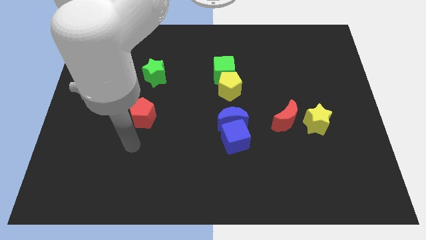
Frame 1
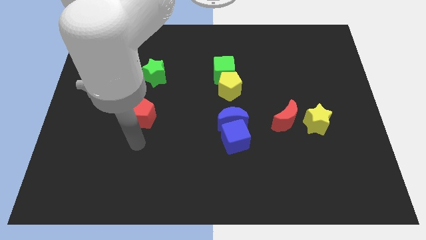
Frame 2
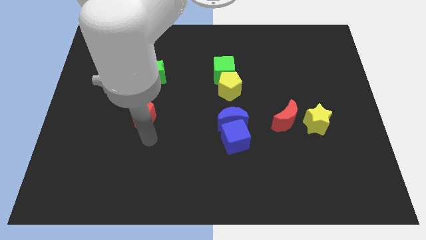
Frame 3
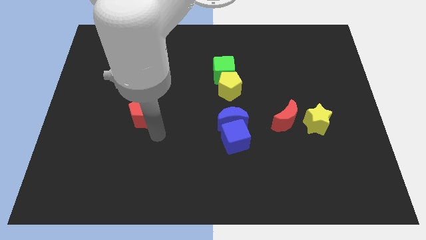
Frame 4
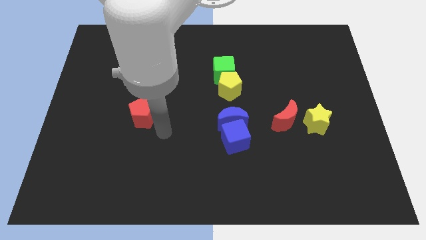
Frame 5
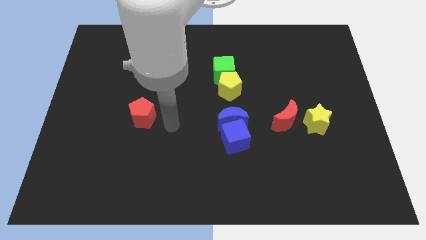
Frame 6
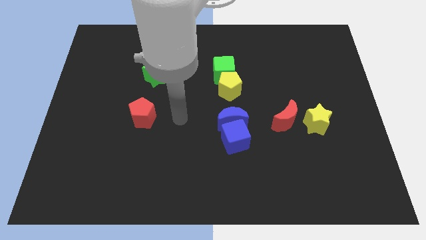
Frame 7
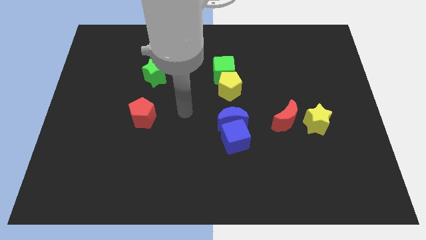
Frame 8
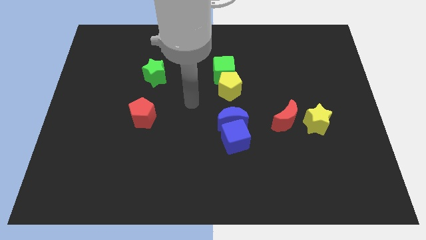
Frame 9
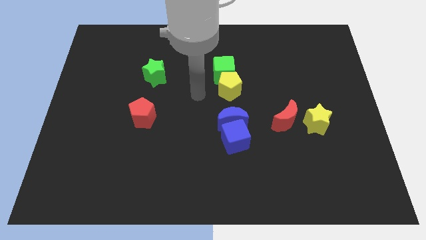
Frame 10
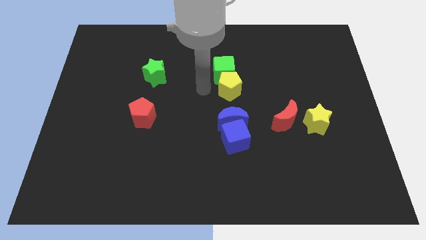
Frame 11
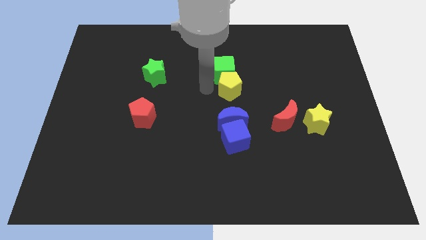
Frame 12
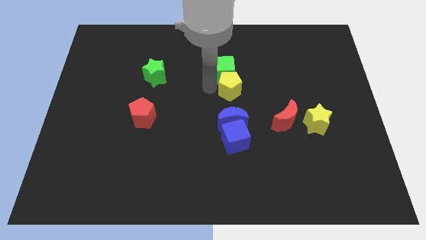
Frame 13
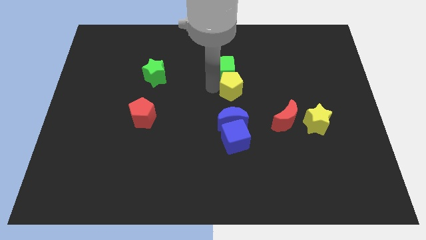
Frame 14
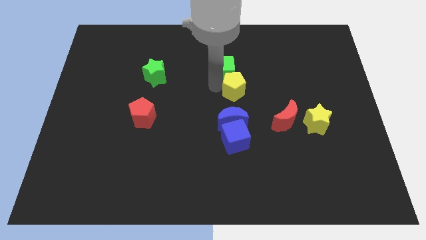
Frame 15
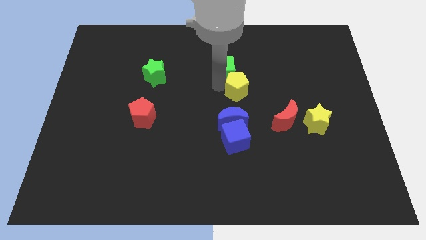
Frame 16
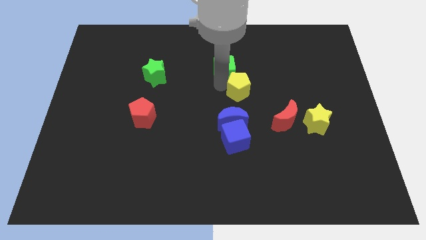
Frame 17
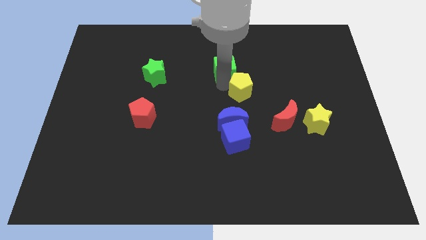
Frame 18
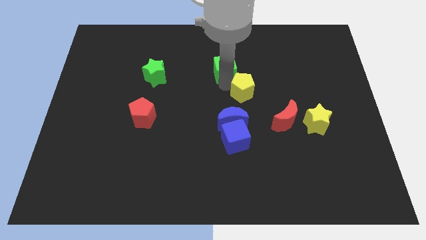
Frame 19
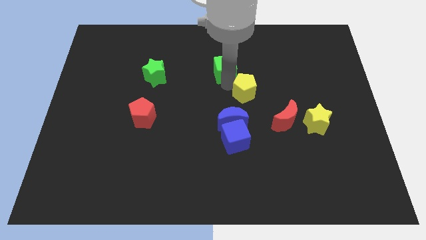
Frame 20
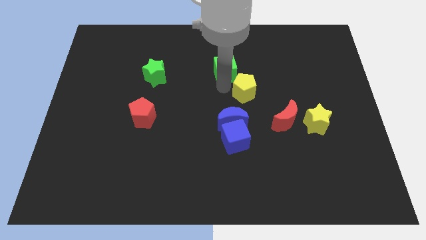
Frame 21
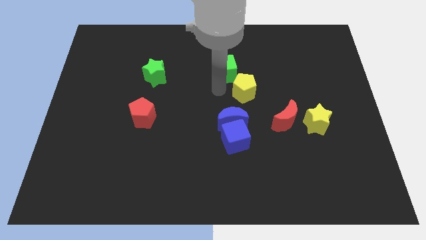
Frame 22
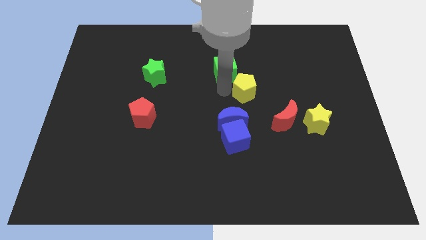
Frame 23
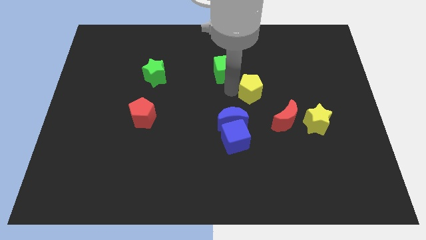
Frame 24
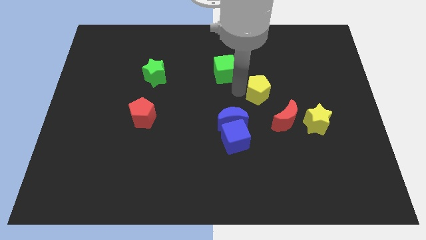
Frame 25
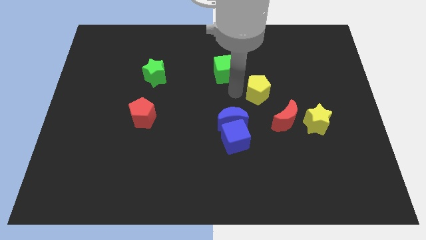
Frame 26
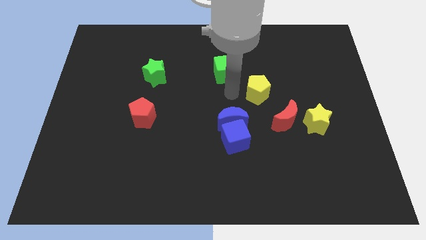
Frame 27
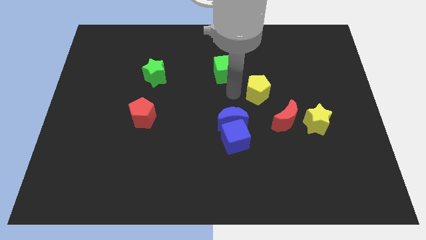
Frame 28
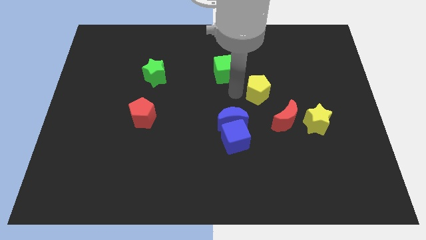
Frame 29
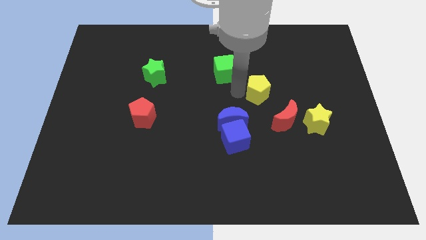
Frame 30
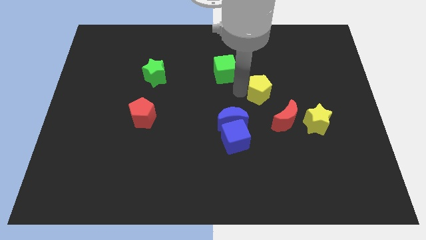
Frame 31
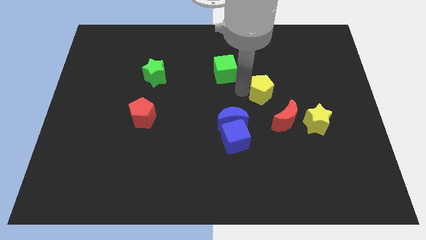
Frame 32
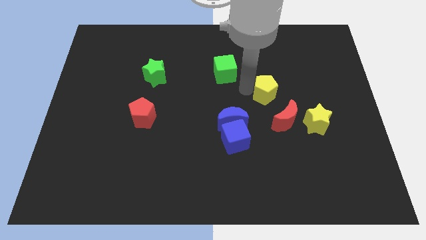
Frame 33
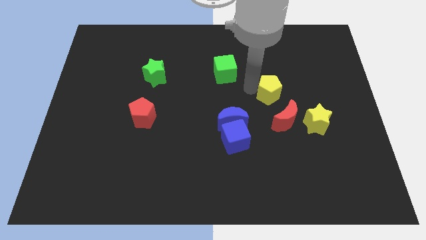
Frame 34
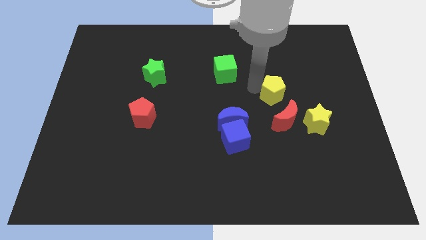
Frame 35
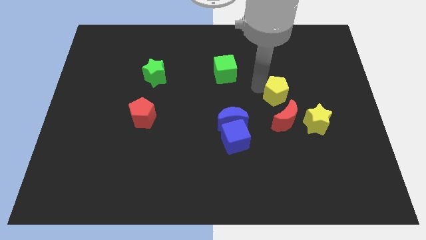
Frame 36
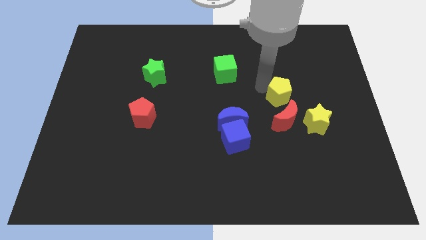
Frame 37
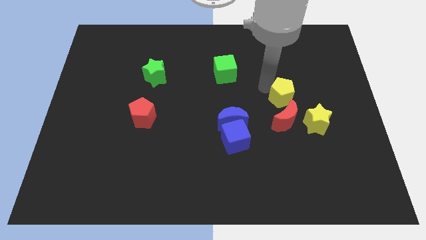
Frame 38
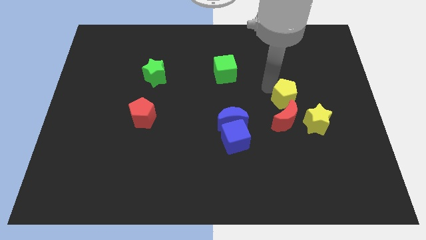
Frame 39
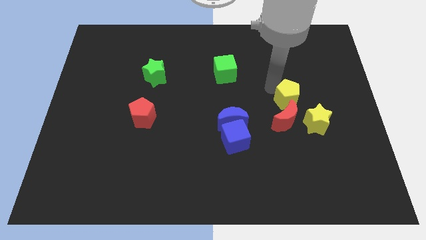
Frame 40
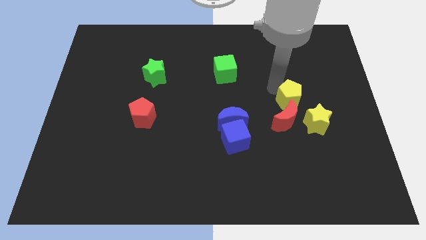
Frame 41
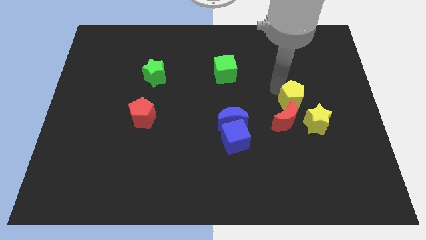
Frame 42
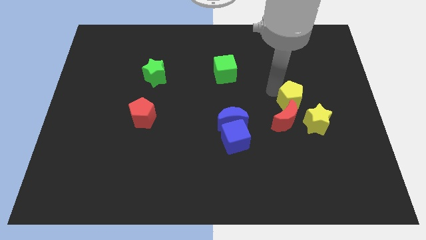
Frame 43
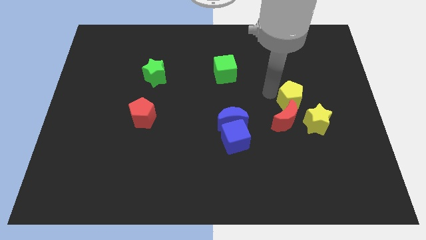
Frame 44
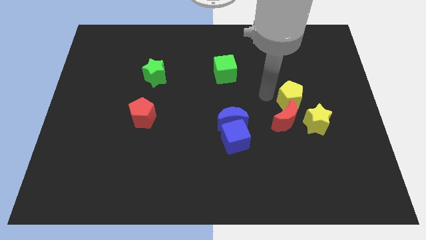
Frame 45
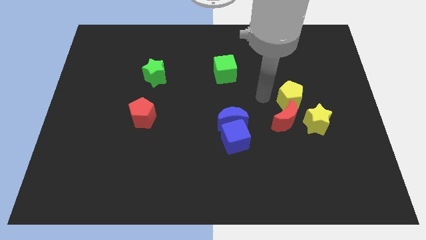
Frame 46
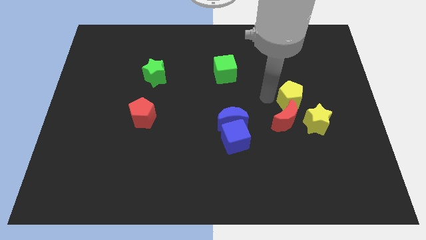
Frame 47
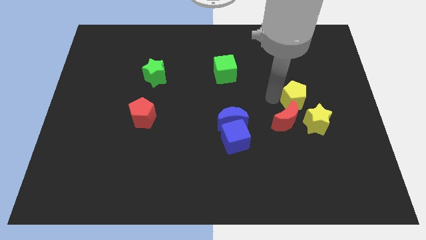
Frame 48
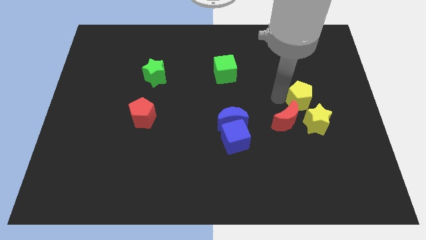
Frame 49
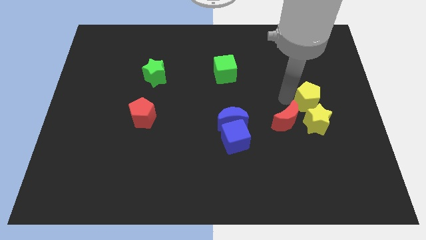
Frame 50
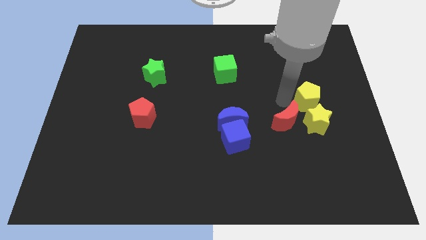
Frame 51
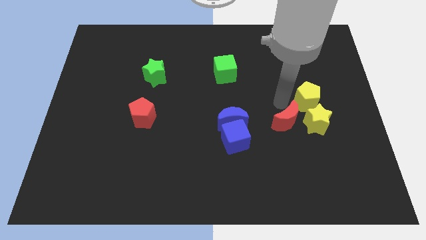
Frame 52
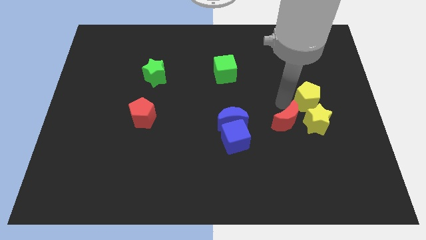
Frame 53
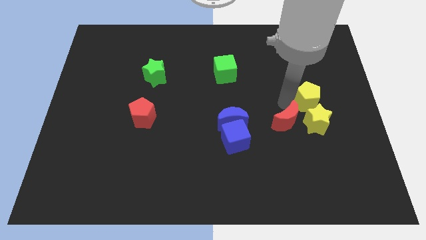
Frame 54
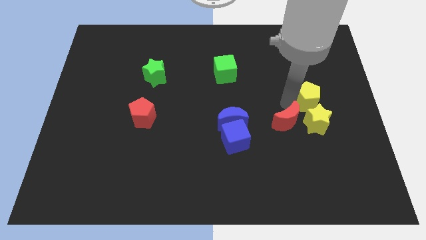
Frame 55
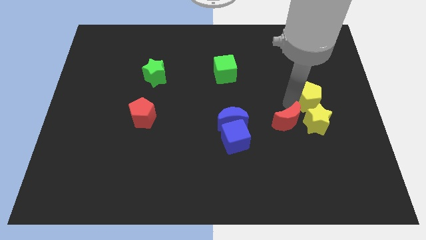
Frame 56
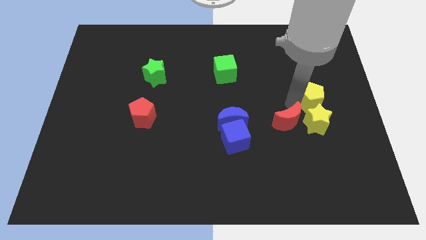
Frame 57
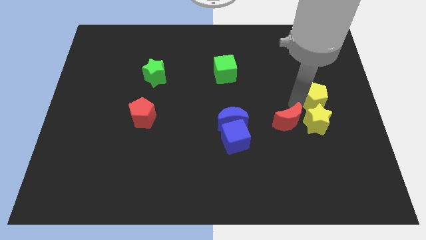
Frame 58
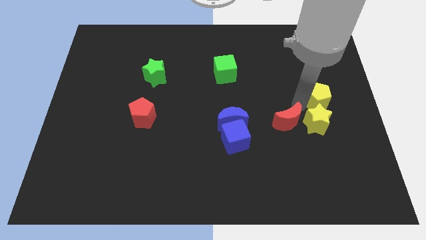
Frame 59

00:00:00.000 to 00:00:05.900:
slide the yellow pentagon to the center right

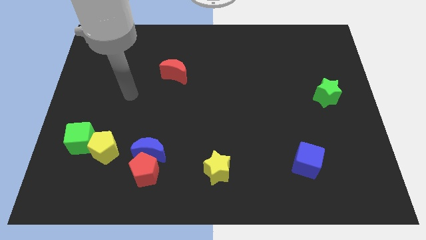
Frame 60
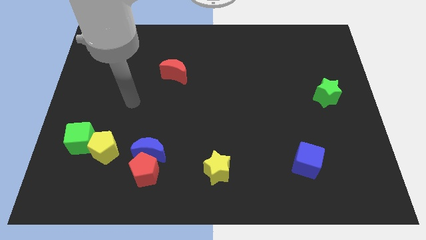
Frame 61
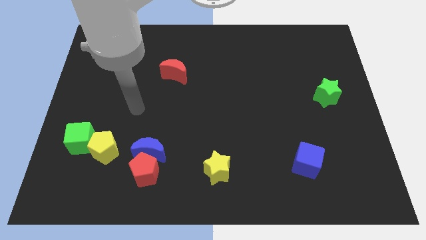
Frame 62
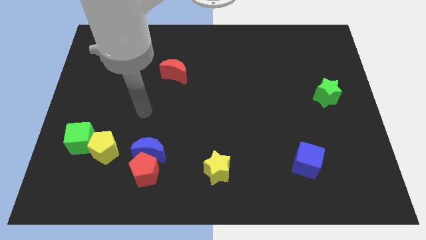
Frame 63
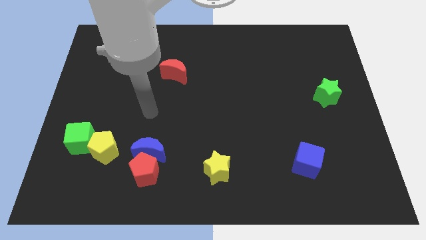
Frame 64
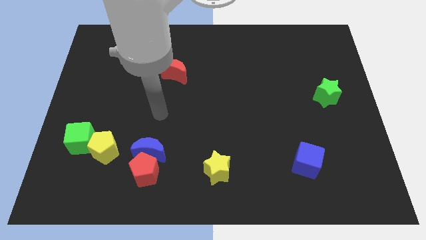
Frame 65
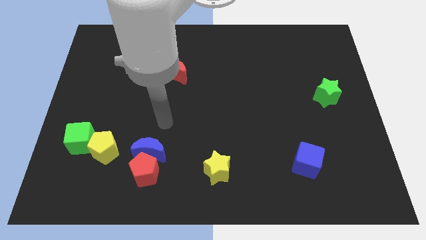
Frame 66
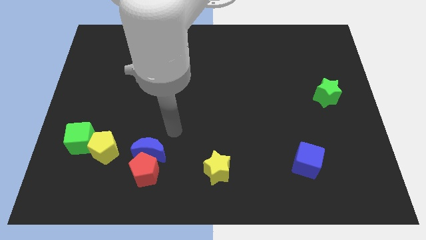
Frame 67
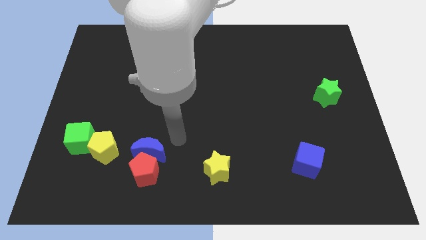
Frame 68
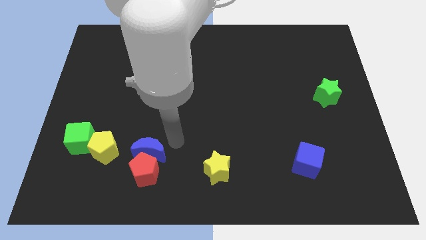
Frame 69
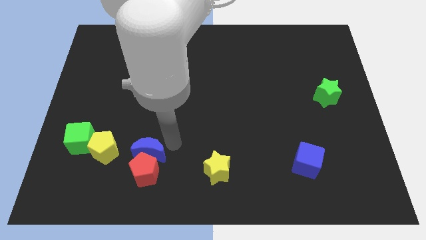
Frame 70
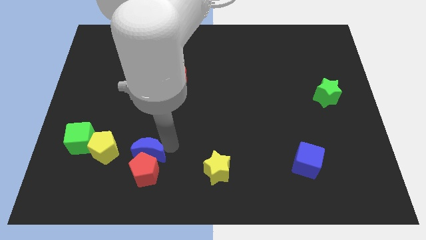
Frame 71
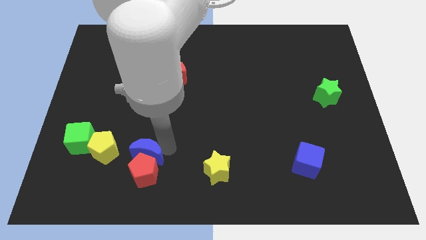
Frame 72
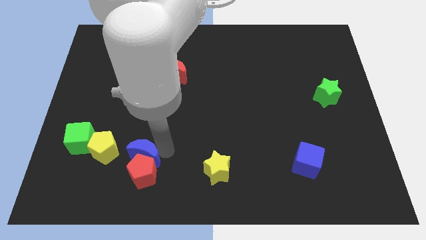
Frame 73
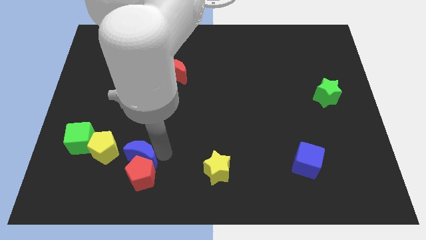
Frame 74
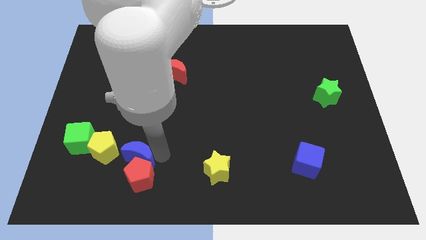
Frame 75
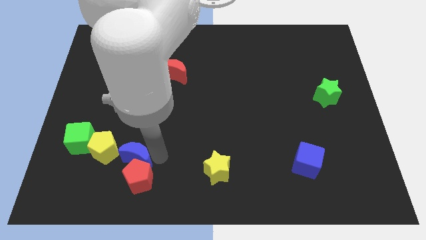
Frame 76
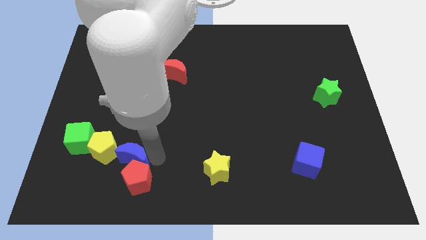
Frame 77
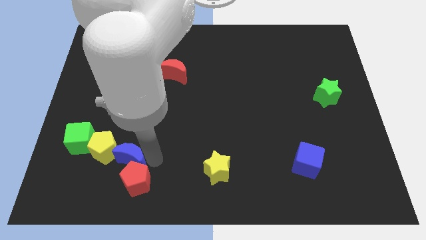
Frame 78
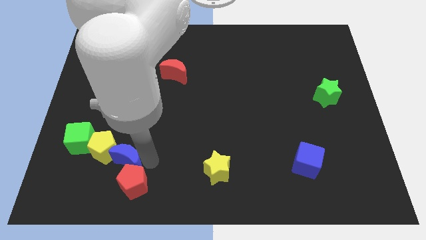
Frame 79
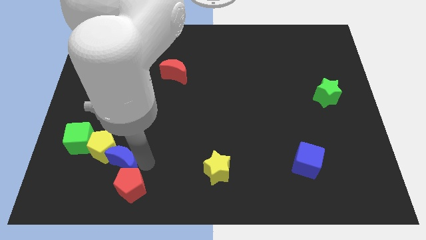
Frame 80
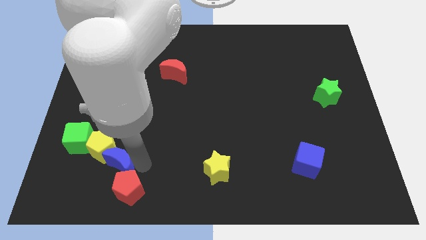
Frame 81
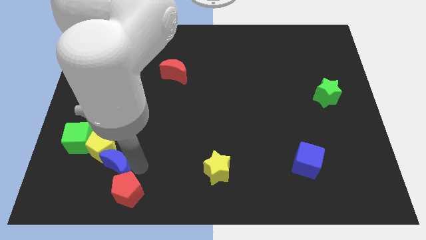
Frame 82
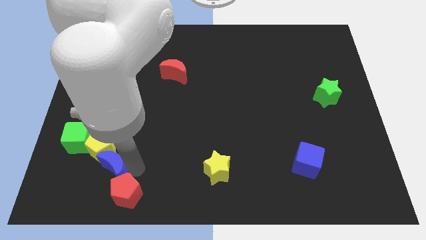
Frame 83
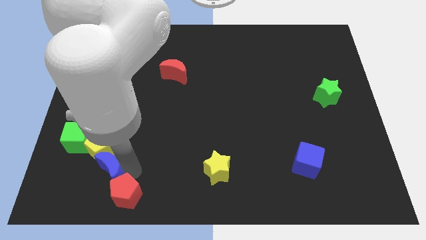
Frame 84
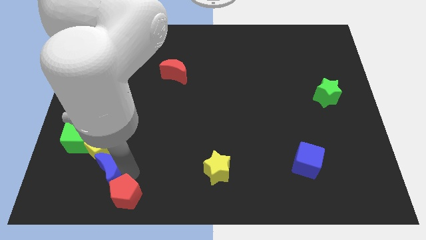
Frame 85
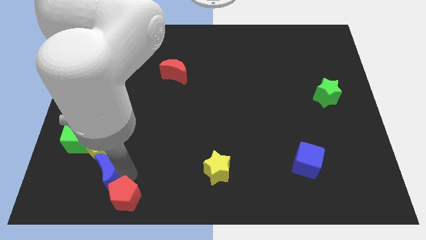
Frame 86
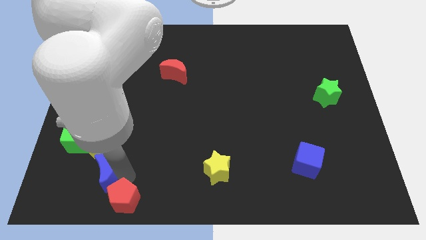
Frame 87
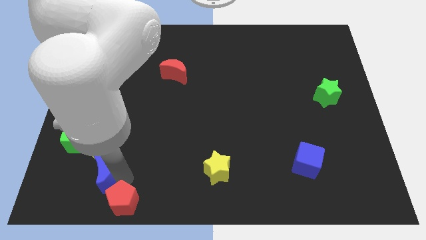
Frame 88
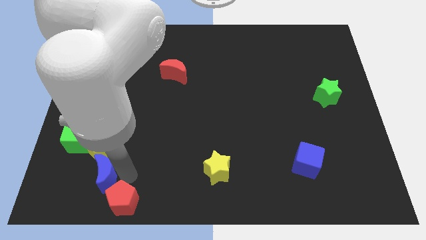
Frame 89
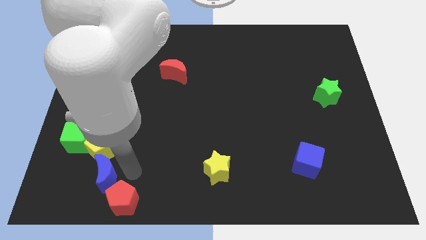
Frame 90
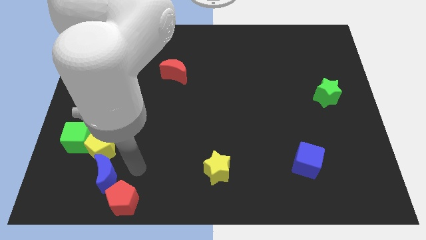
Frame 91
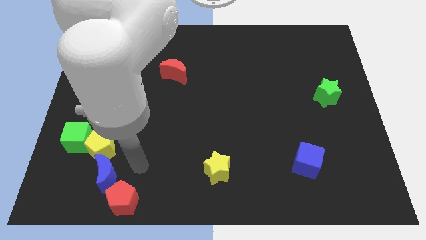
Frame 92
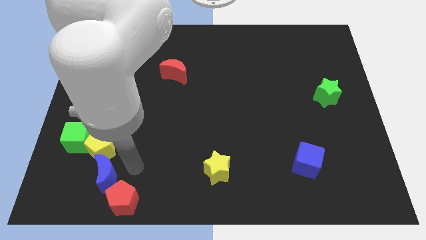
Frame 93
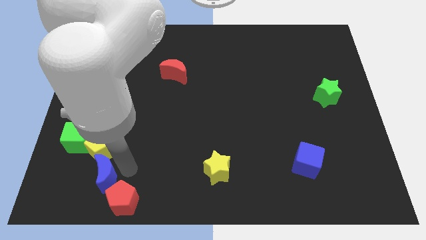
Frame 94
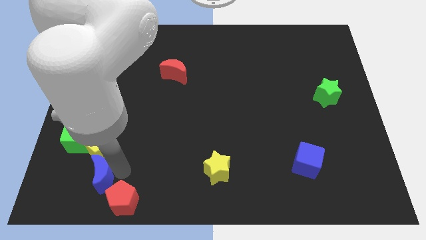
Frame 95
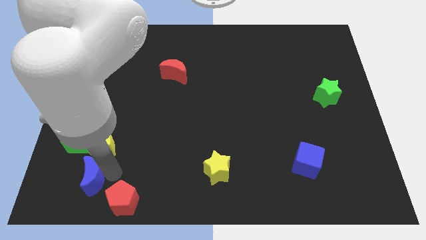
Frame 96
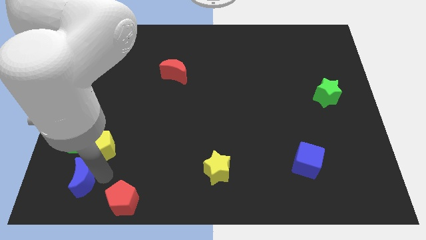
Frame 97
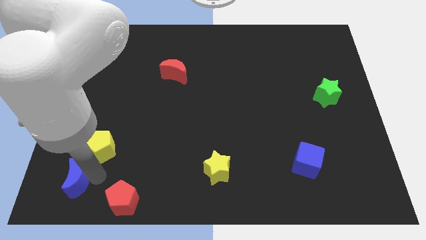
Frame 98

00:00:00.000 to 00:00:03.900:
push the blue moon to the bottom left of the board
